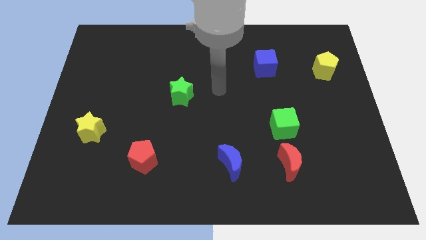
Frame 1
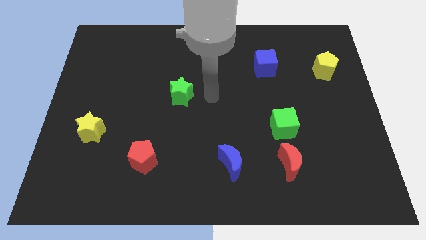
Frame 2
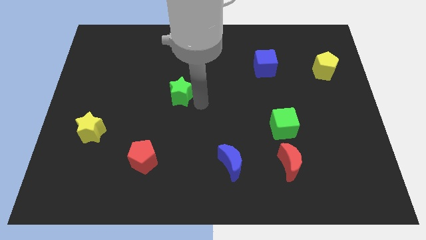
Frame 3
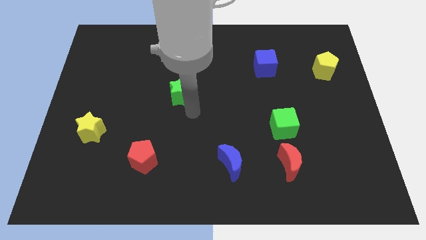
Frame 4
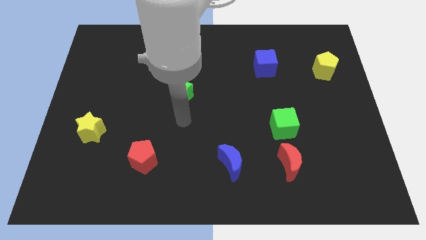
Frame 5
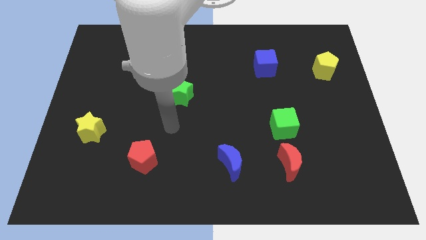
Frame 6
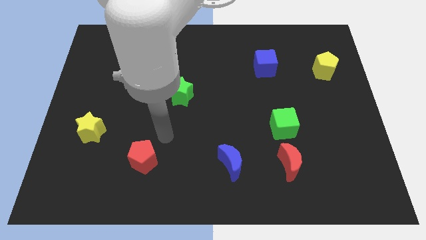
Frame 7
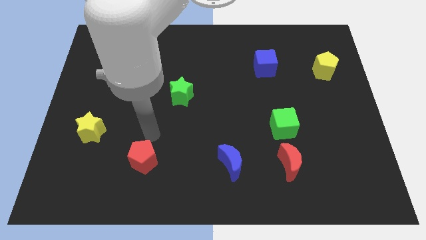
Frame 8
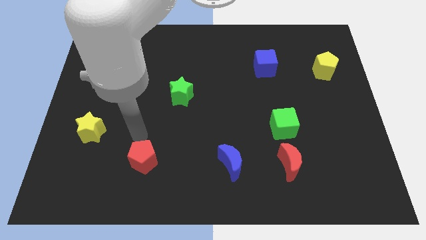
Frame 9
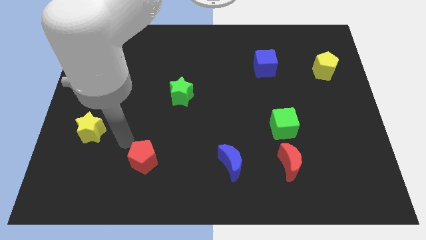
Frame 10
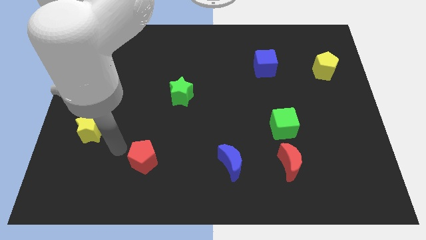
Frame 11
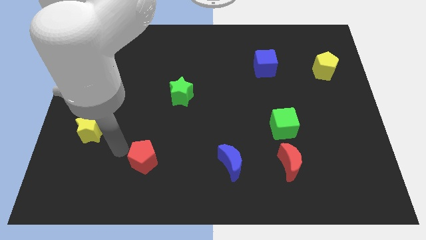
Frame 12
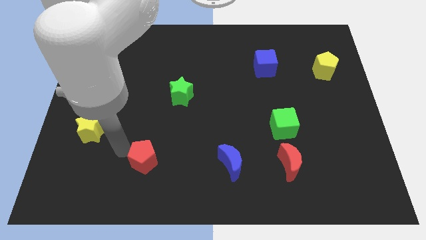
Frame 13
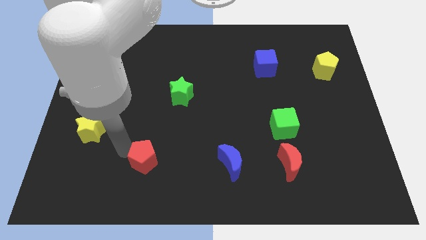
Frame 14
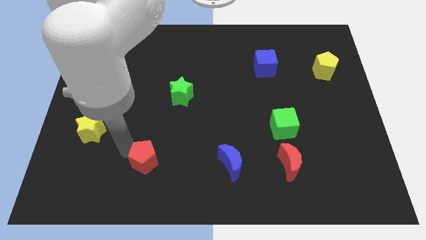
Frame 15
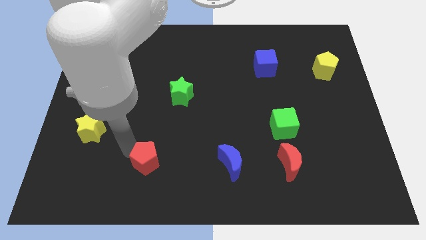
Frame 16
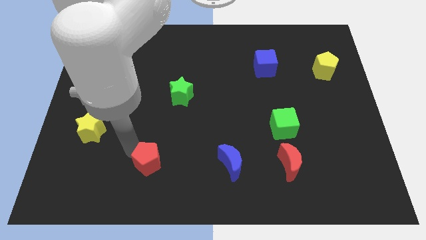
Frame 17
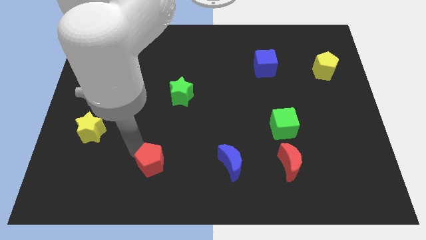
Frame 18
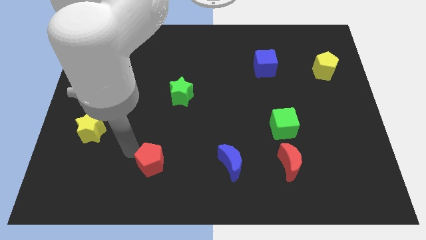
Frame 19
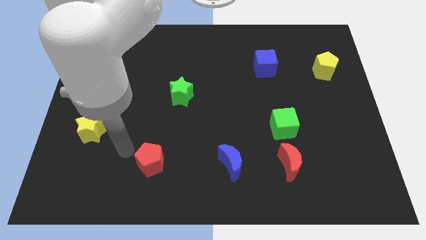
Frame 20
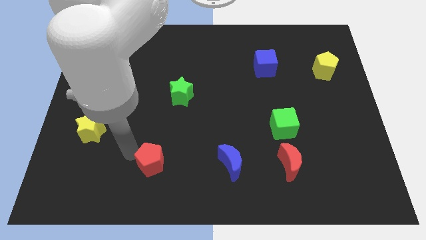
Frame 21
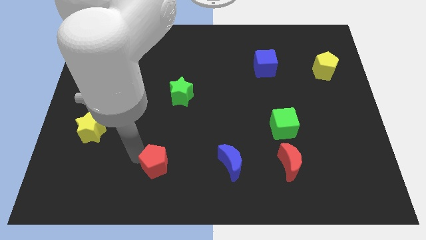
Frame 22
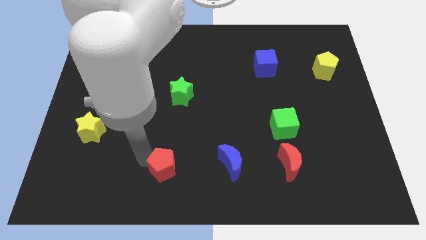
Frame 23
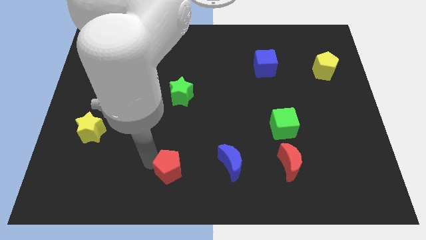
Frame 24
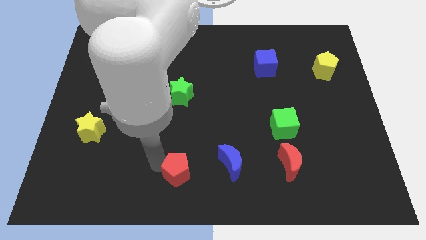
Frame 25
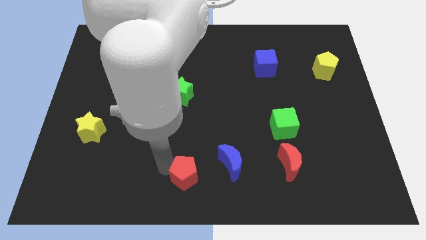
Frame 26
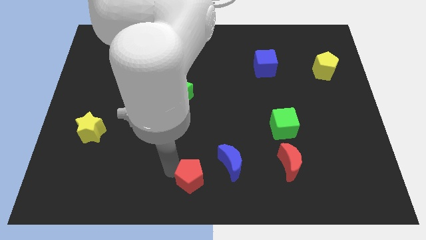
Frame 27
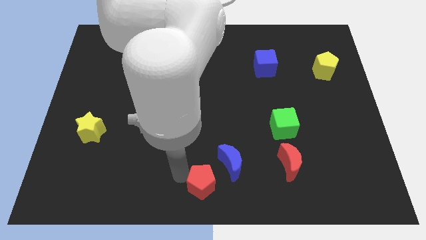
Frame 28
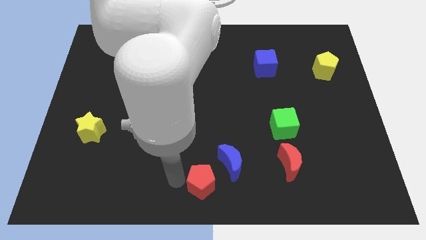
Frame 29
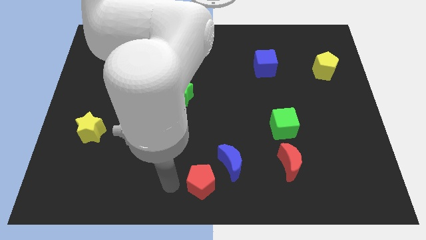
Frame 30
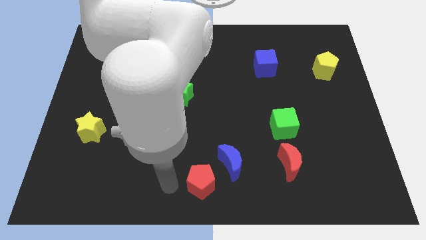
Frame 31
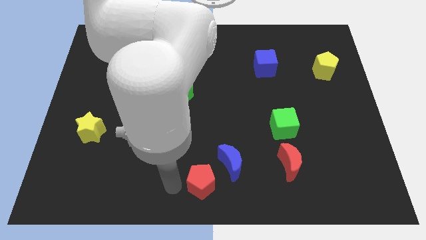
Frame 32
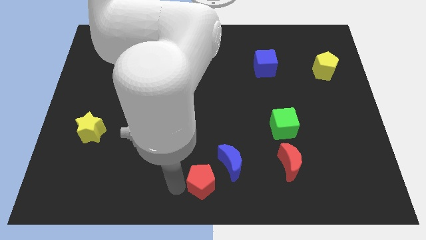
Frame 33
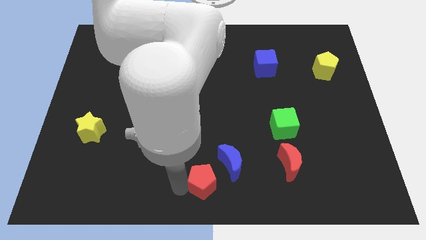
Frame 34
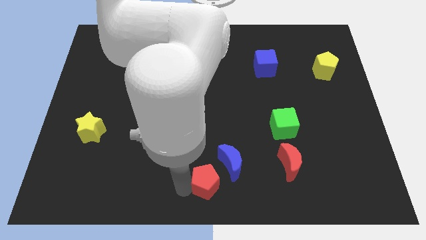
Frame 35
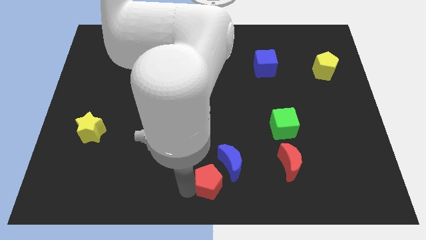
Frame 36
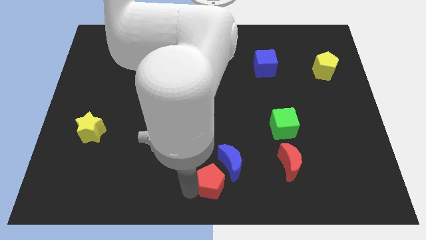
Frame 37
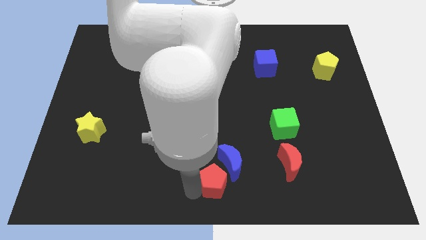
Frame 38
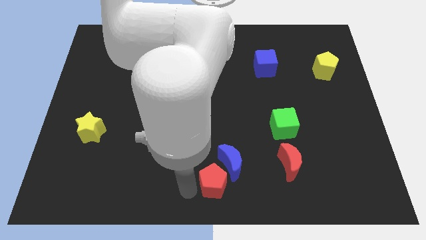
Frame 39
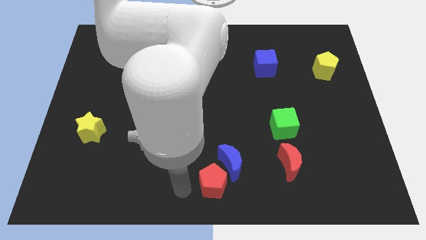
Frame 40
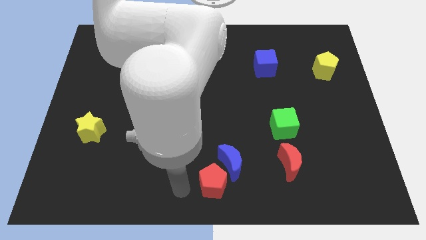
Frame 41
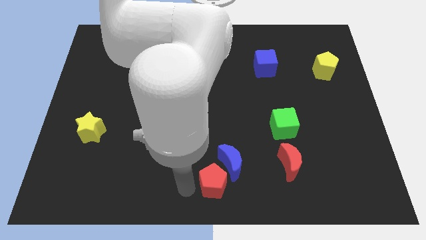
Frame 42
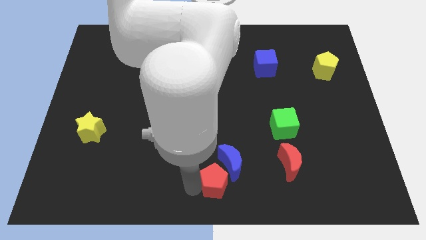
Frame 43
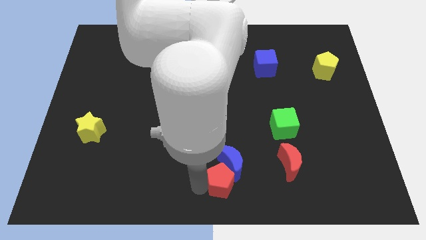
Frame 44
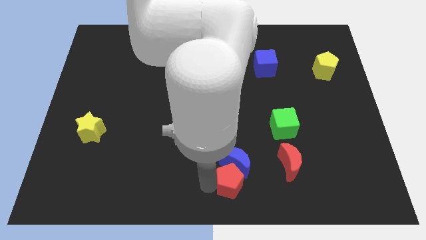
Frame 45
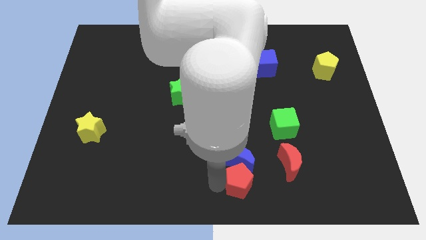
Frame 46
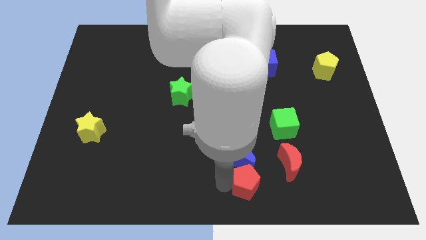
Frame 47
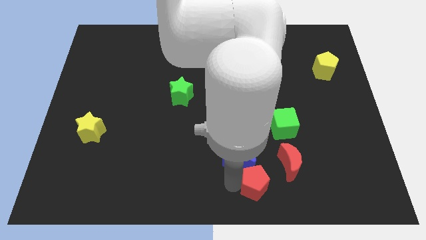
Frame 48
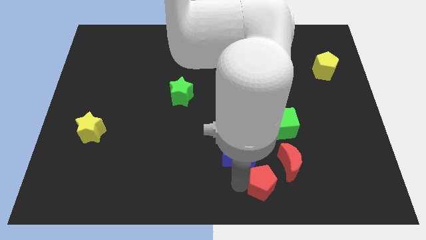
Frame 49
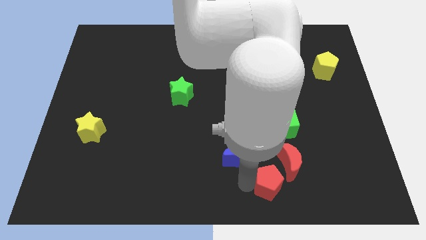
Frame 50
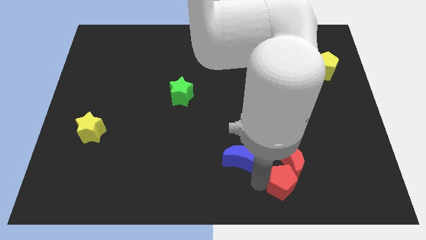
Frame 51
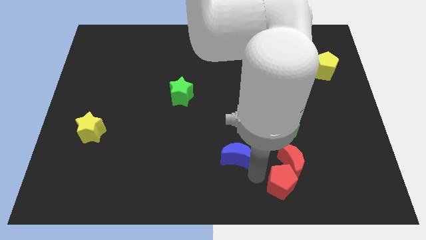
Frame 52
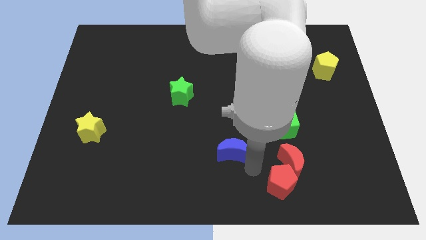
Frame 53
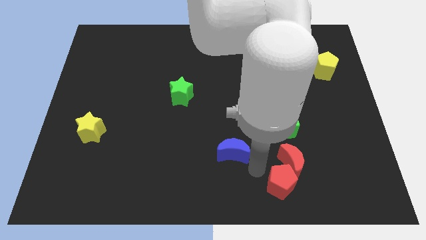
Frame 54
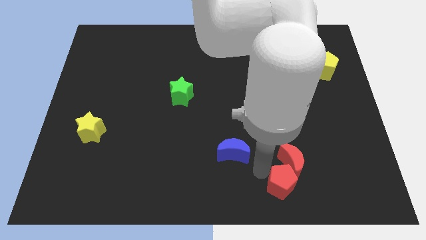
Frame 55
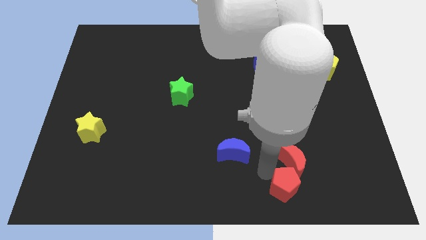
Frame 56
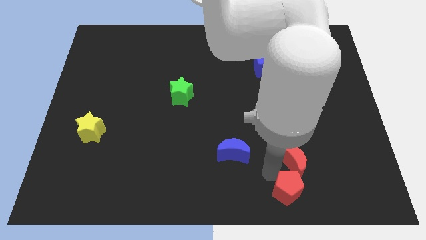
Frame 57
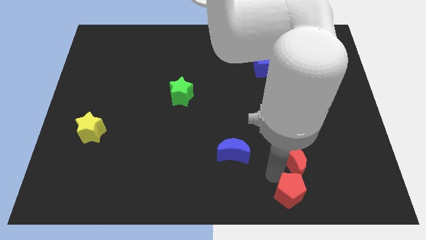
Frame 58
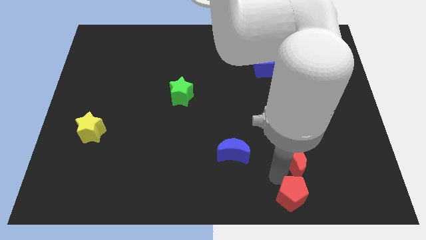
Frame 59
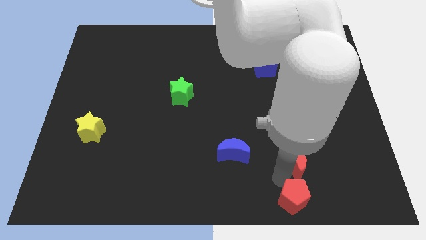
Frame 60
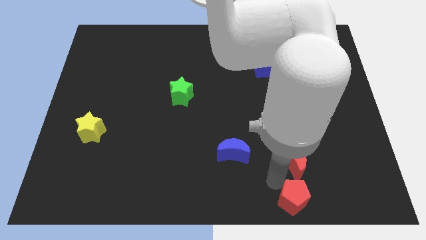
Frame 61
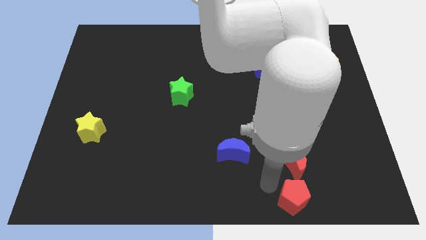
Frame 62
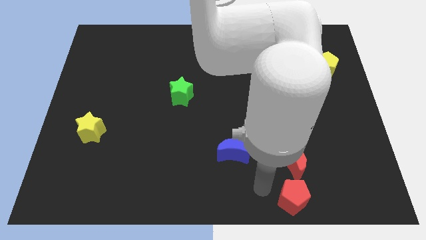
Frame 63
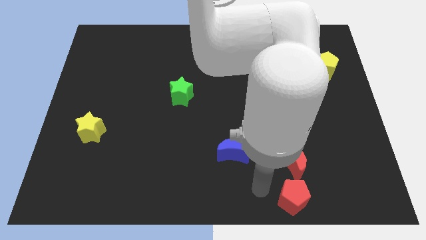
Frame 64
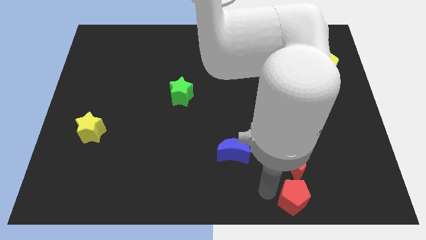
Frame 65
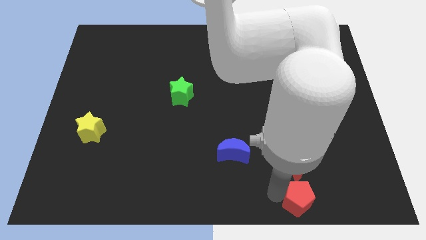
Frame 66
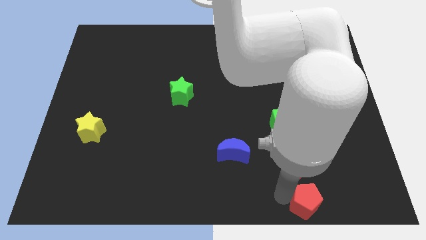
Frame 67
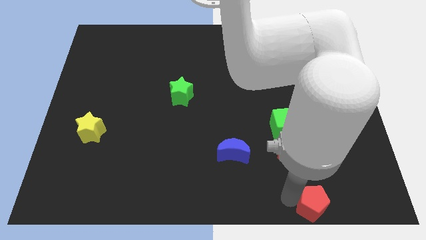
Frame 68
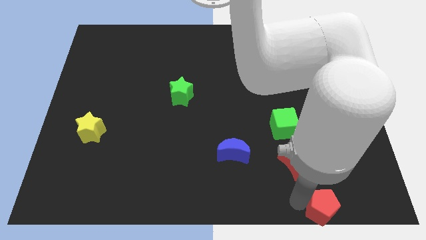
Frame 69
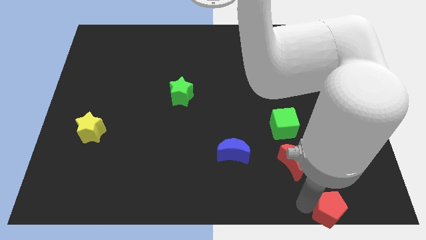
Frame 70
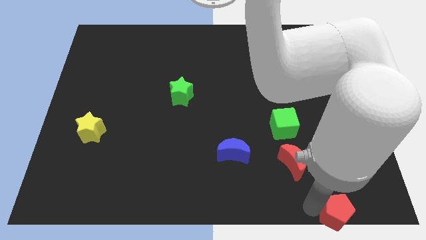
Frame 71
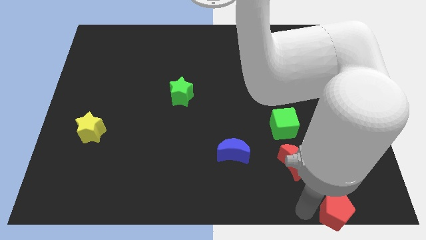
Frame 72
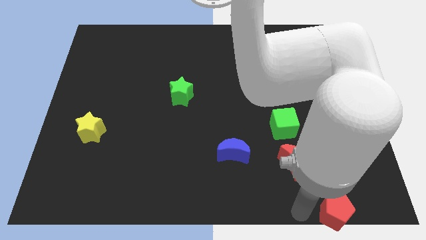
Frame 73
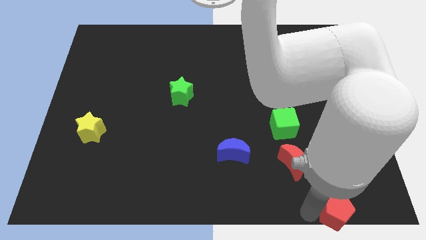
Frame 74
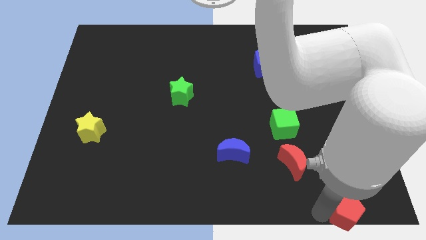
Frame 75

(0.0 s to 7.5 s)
slide the red pentagon to the bottom right of the board

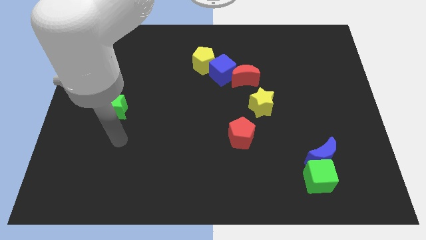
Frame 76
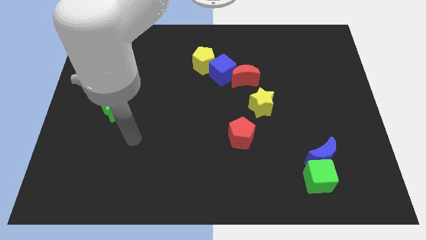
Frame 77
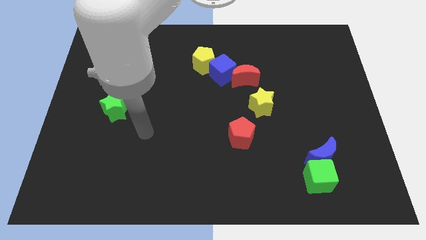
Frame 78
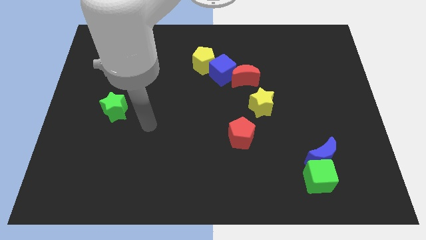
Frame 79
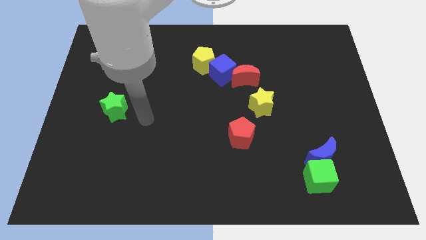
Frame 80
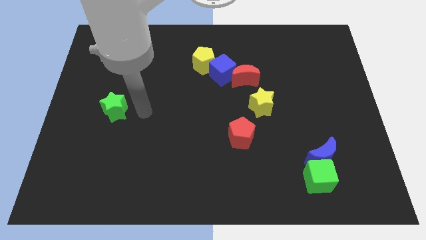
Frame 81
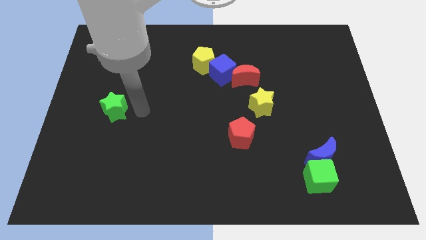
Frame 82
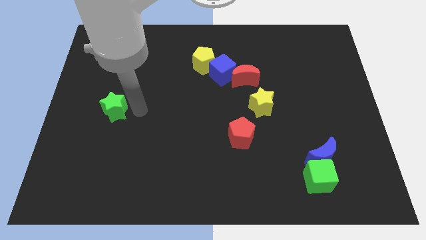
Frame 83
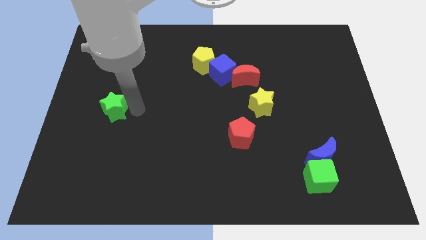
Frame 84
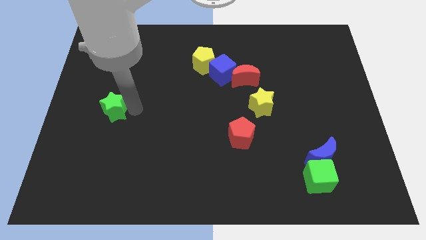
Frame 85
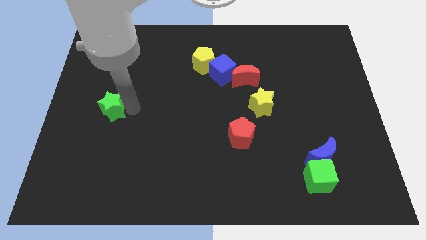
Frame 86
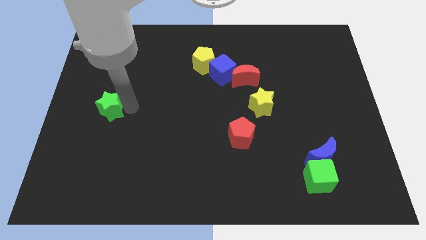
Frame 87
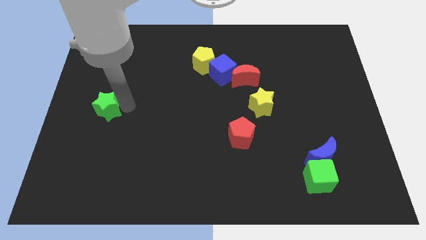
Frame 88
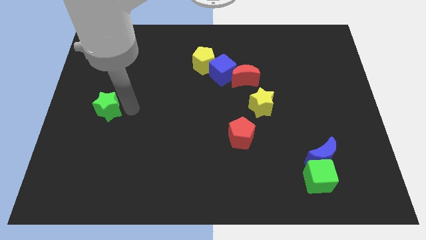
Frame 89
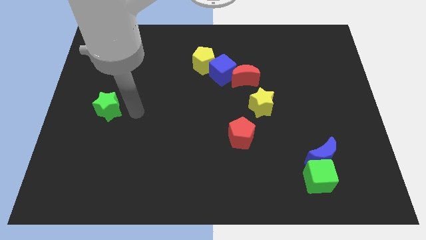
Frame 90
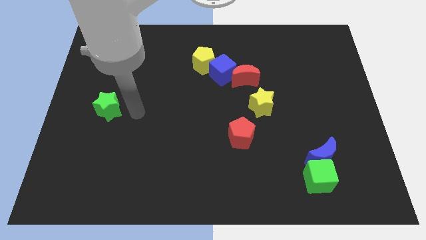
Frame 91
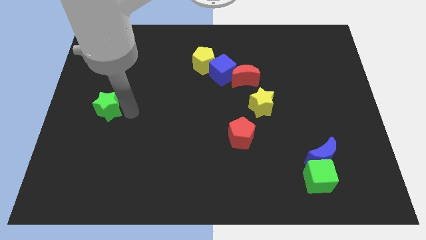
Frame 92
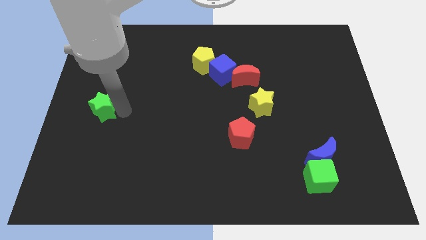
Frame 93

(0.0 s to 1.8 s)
put the green star to the left side of the board
